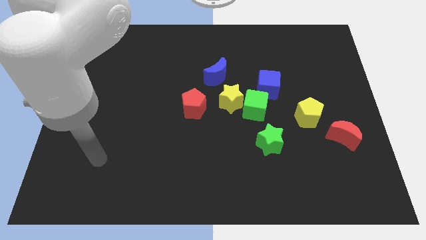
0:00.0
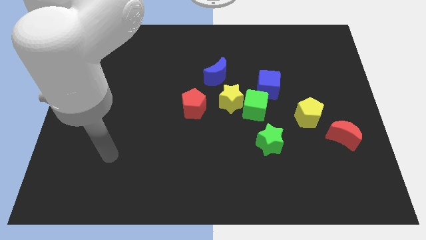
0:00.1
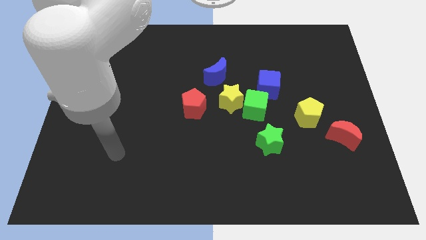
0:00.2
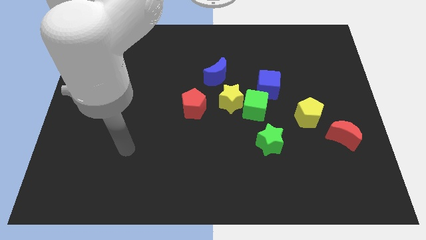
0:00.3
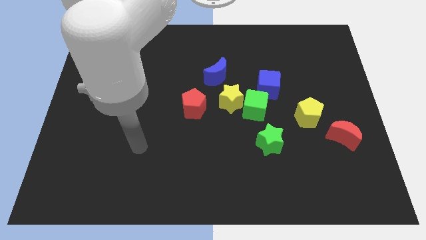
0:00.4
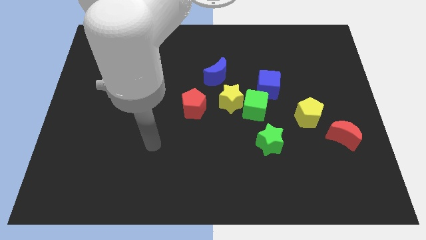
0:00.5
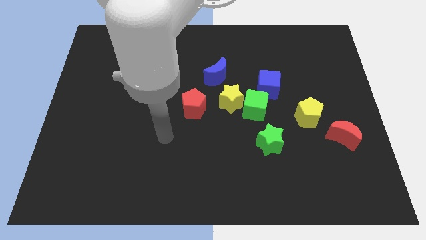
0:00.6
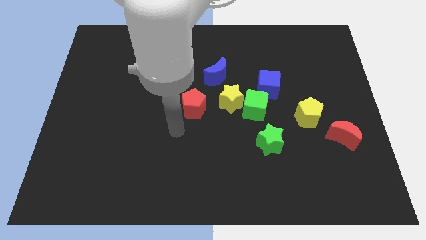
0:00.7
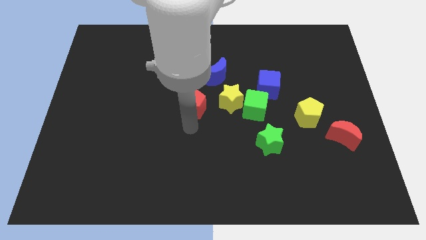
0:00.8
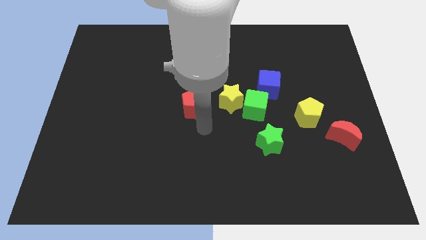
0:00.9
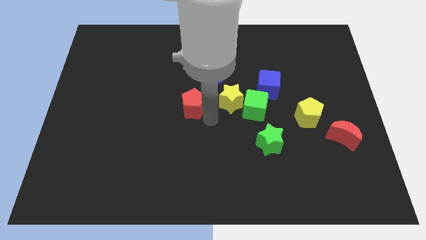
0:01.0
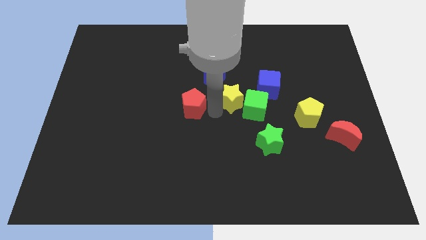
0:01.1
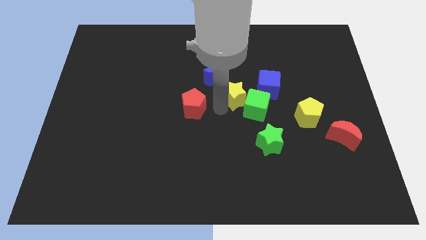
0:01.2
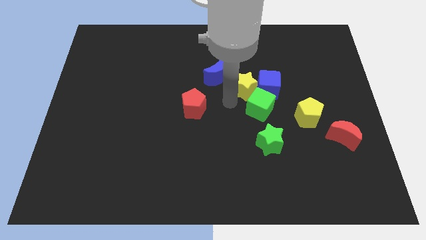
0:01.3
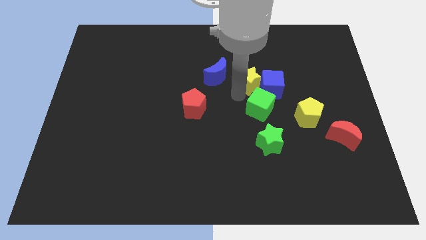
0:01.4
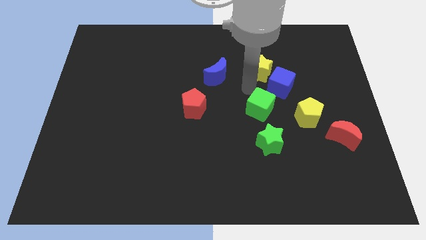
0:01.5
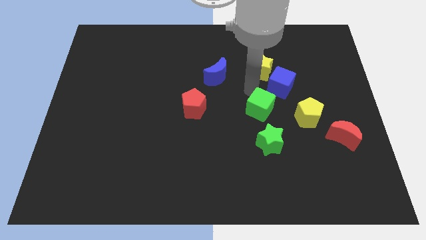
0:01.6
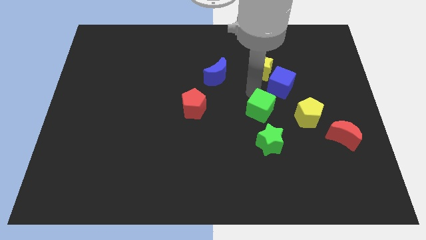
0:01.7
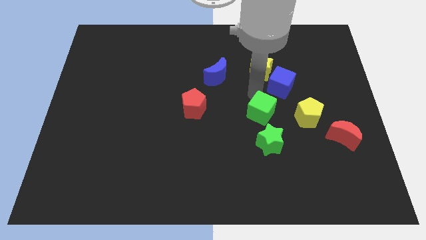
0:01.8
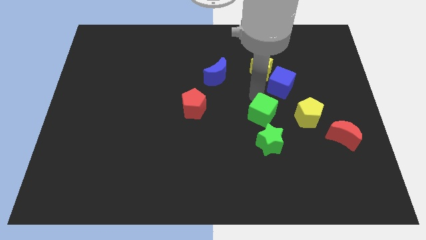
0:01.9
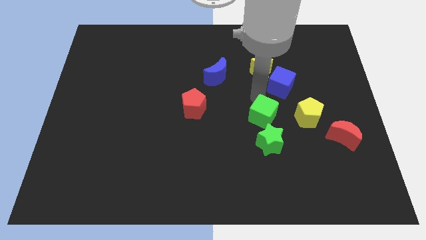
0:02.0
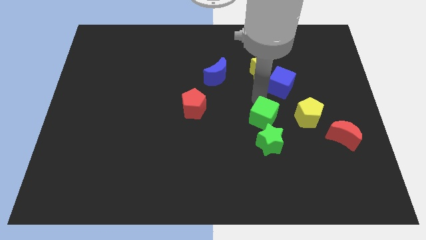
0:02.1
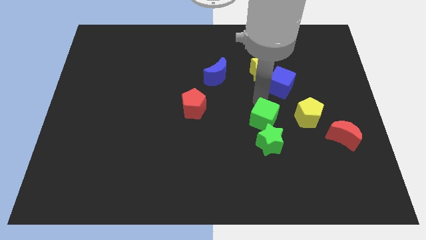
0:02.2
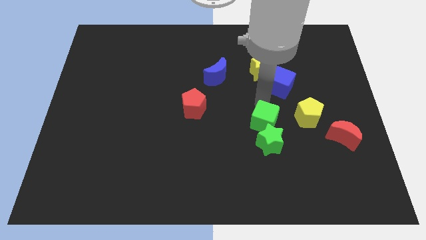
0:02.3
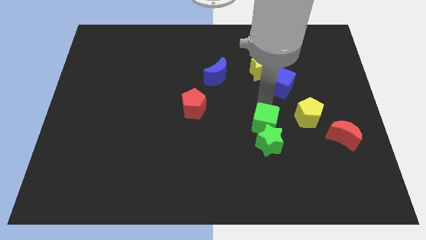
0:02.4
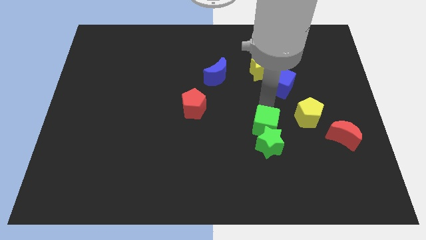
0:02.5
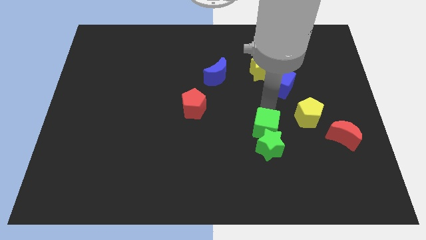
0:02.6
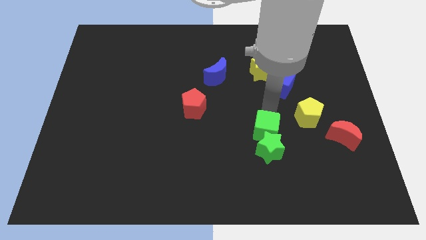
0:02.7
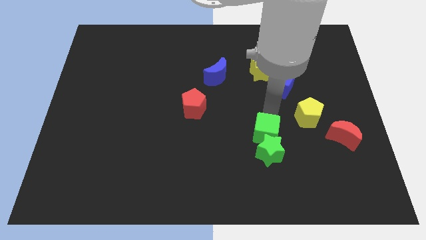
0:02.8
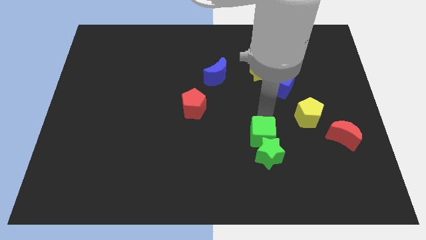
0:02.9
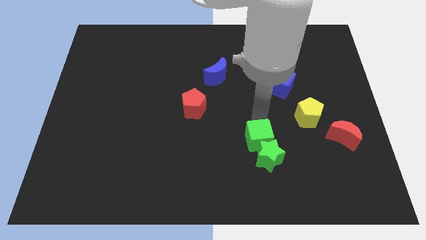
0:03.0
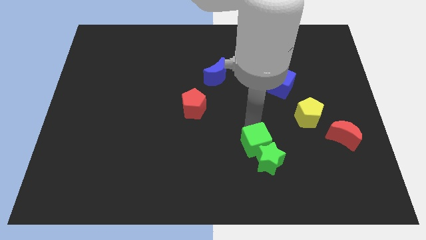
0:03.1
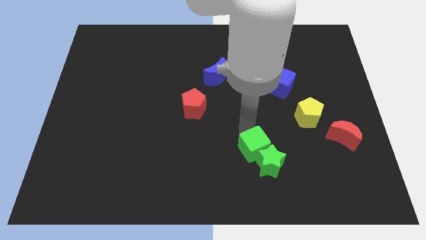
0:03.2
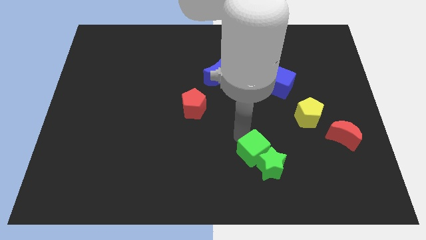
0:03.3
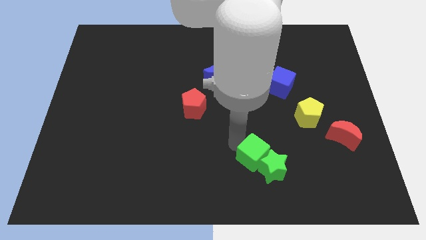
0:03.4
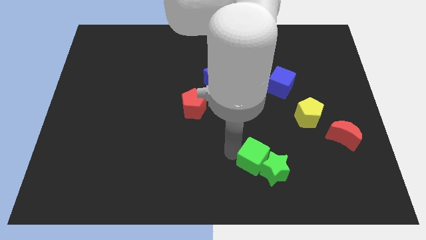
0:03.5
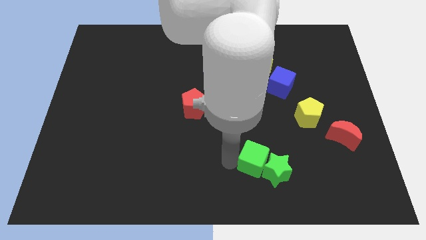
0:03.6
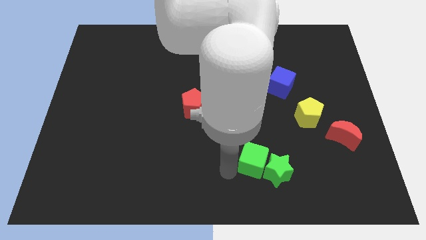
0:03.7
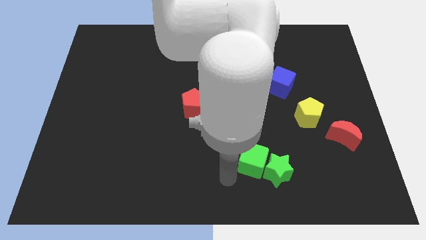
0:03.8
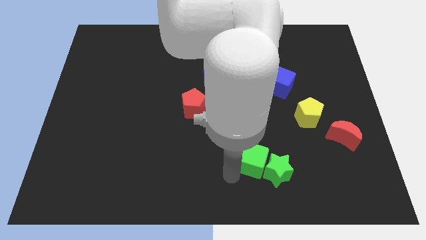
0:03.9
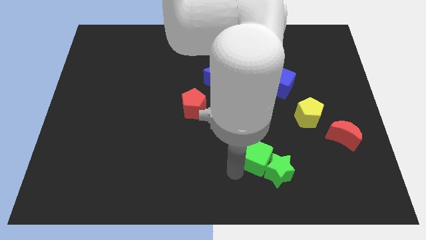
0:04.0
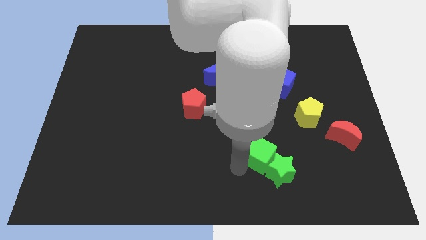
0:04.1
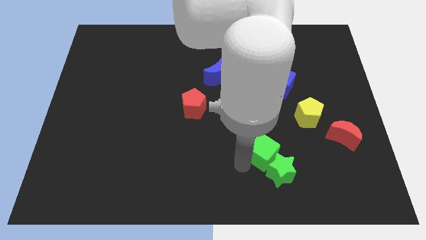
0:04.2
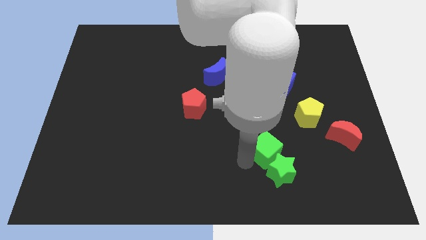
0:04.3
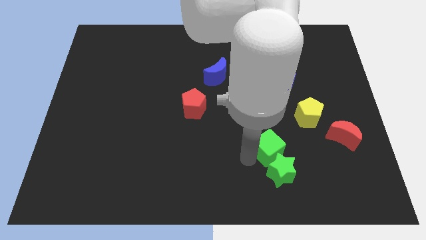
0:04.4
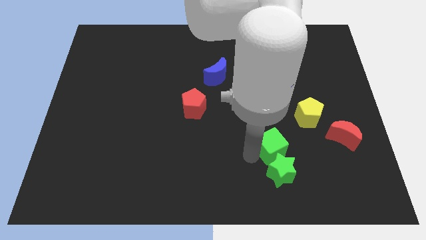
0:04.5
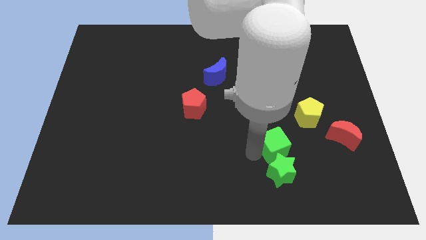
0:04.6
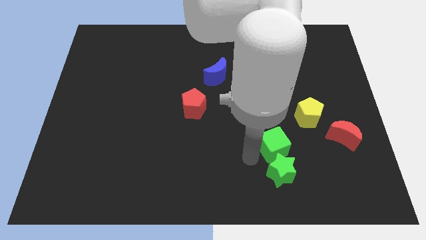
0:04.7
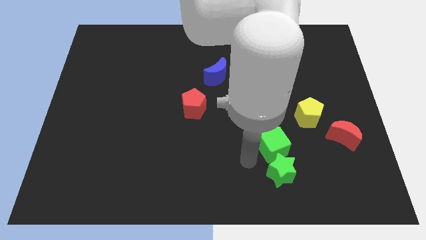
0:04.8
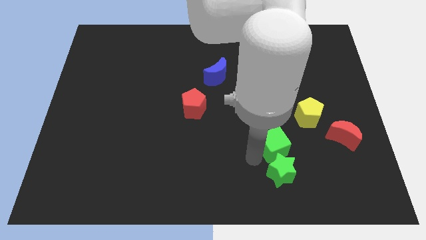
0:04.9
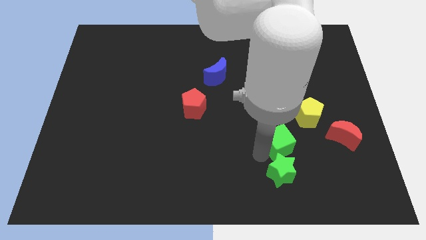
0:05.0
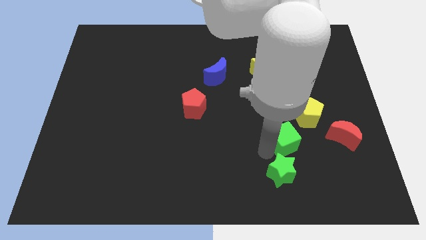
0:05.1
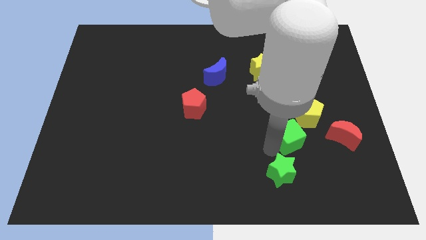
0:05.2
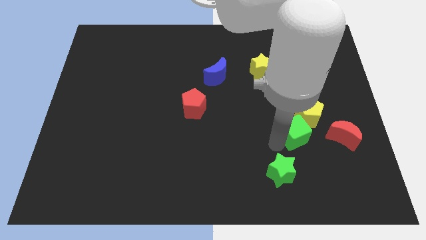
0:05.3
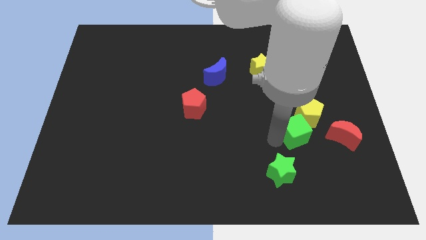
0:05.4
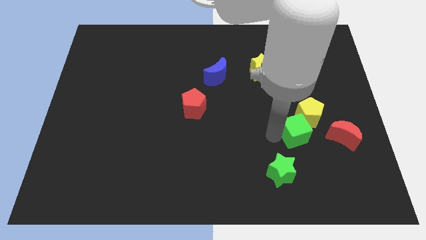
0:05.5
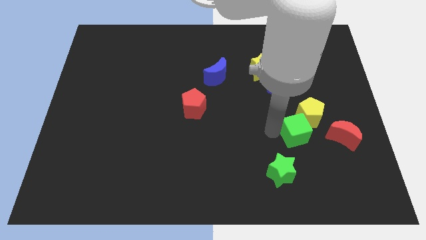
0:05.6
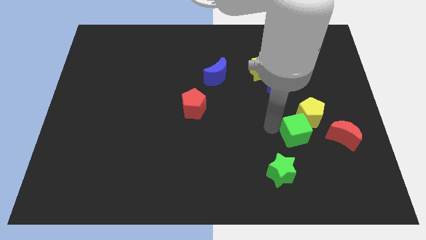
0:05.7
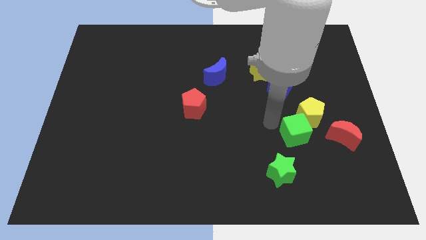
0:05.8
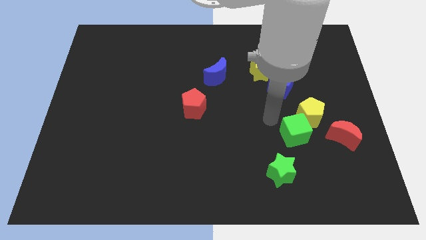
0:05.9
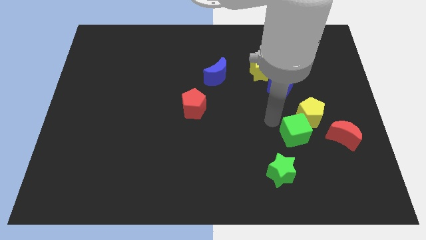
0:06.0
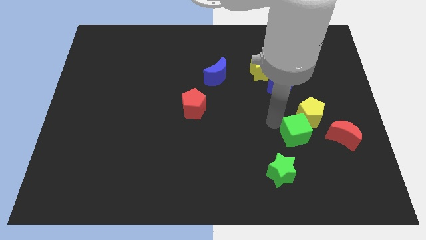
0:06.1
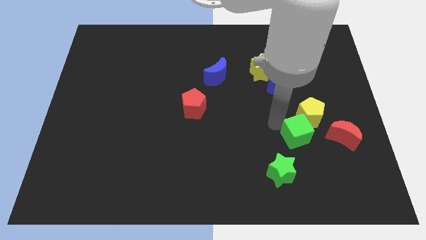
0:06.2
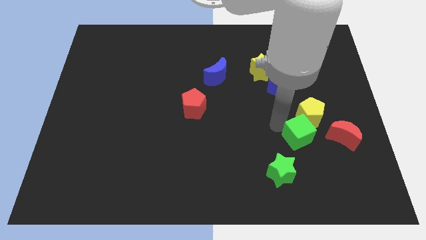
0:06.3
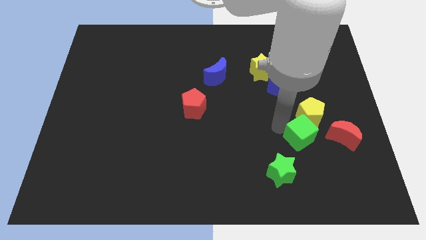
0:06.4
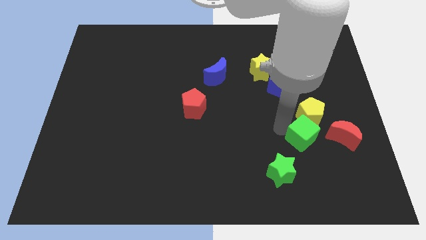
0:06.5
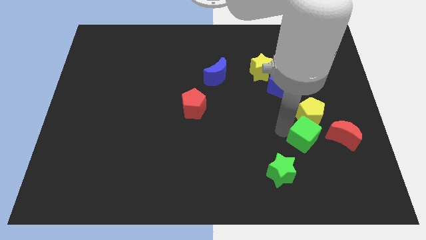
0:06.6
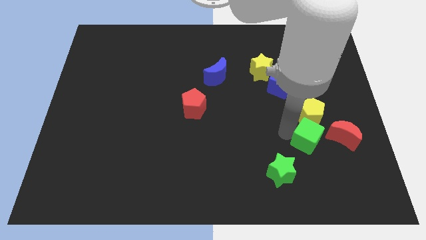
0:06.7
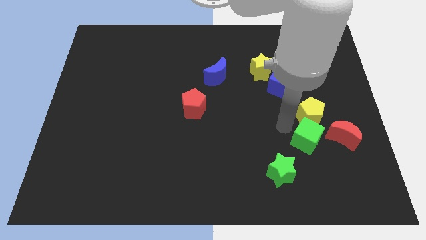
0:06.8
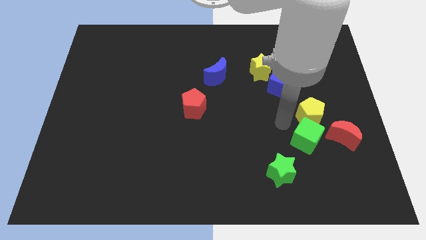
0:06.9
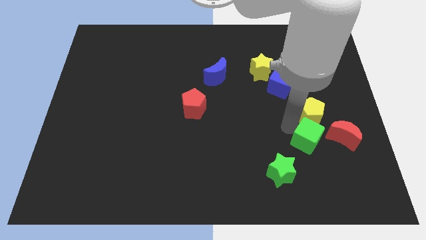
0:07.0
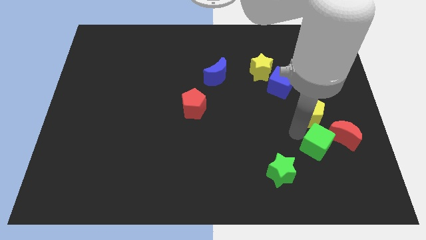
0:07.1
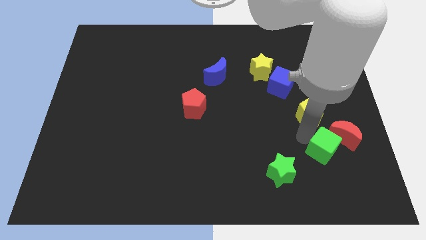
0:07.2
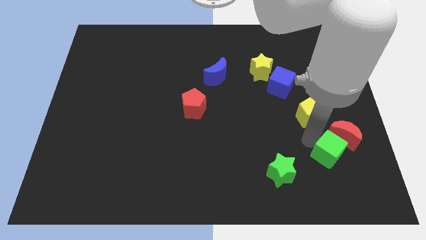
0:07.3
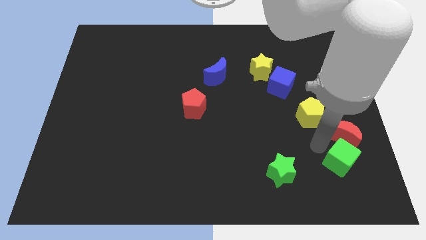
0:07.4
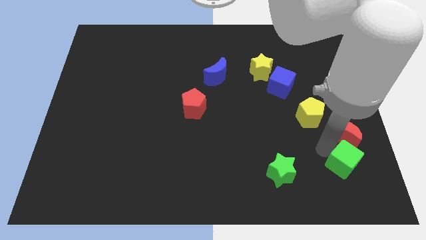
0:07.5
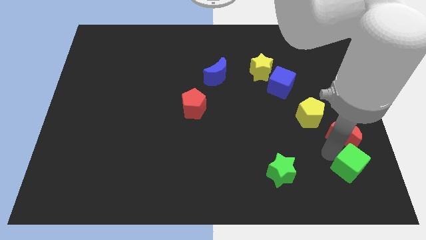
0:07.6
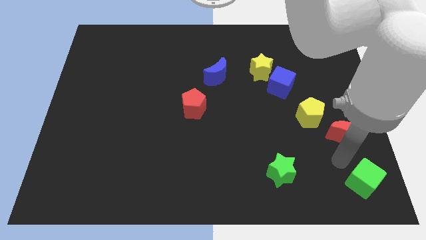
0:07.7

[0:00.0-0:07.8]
slide the green cube to the bottom right
